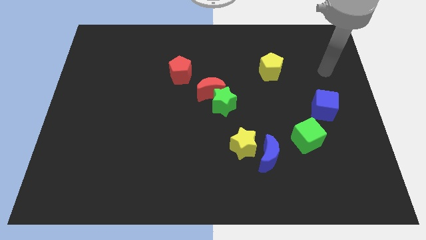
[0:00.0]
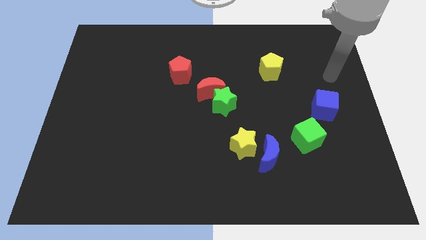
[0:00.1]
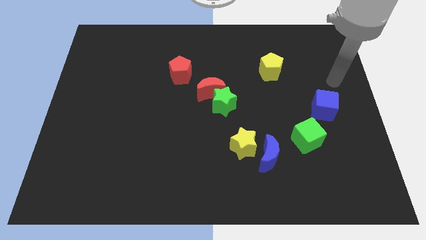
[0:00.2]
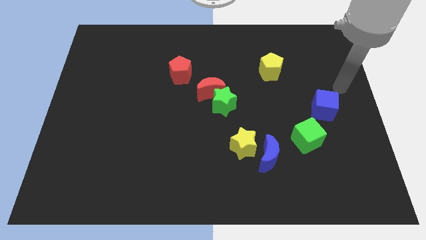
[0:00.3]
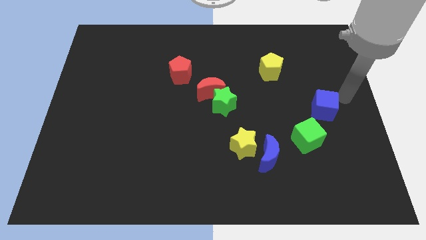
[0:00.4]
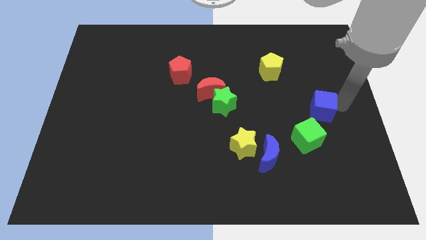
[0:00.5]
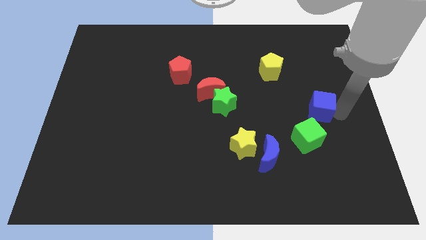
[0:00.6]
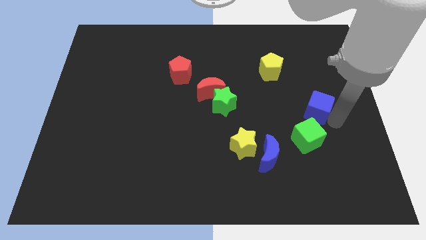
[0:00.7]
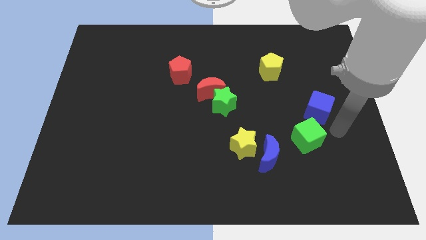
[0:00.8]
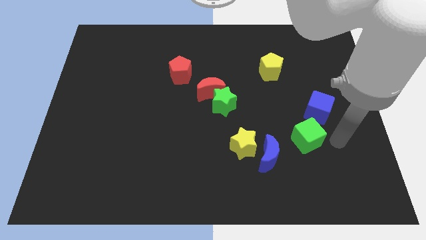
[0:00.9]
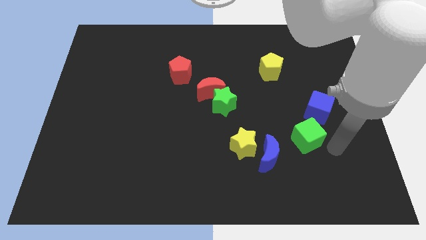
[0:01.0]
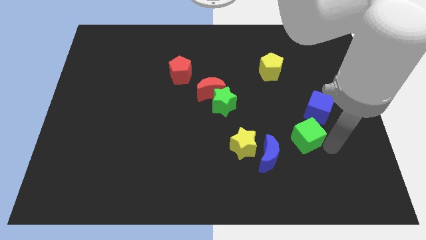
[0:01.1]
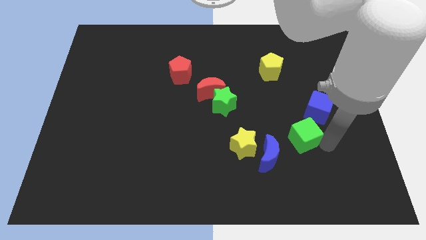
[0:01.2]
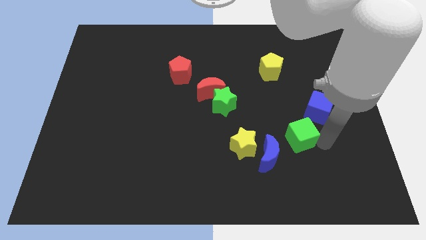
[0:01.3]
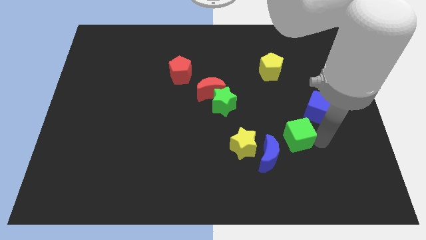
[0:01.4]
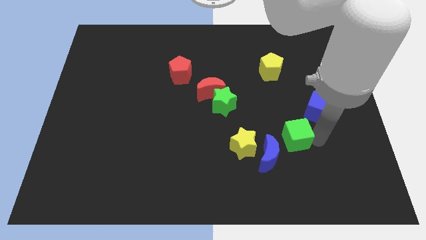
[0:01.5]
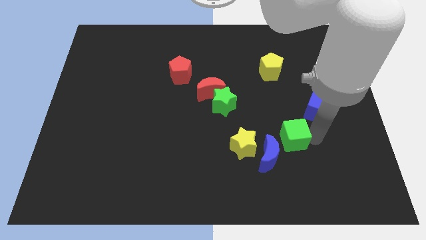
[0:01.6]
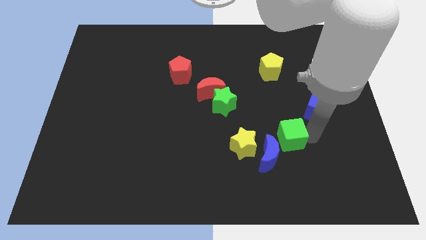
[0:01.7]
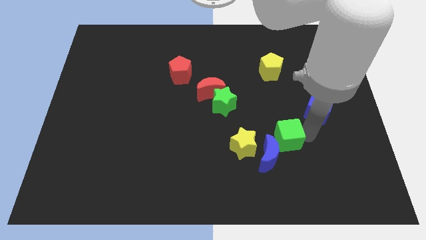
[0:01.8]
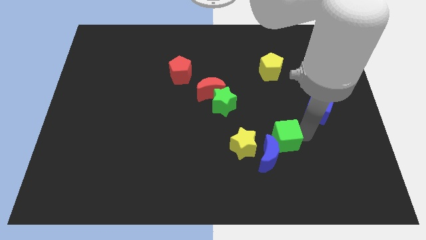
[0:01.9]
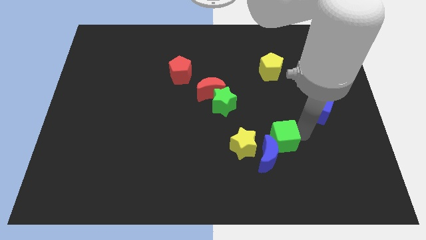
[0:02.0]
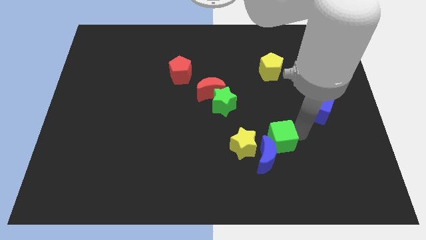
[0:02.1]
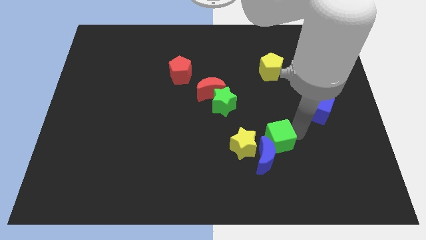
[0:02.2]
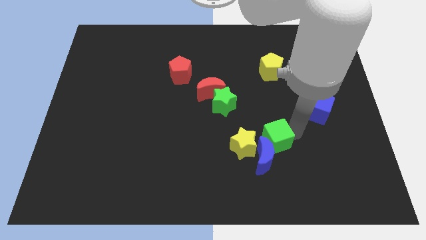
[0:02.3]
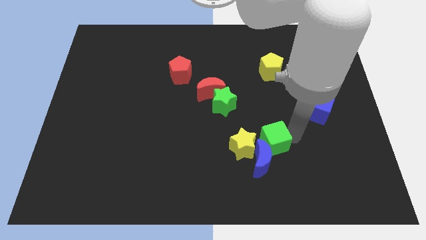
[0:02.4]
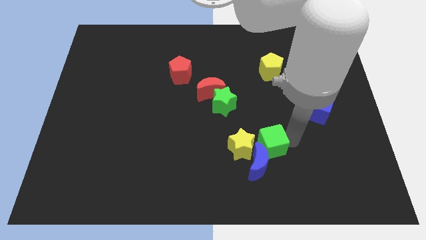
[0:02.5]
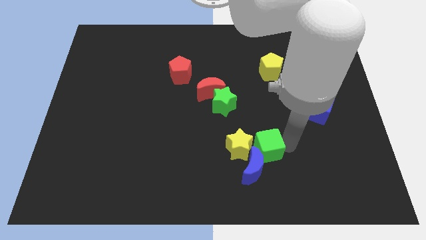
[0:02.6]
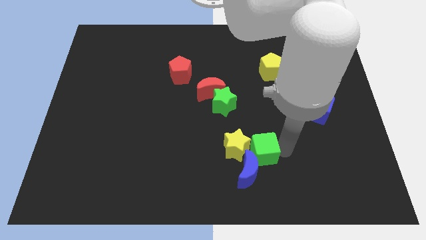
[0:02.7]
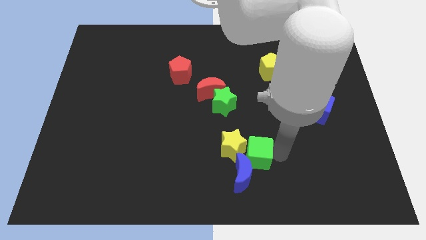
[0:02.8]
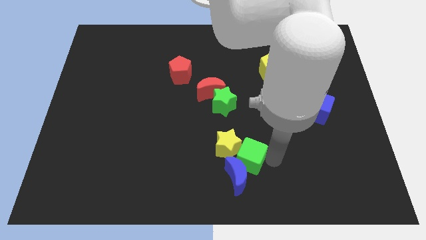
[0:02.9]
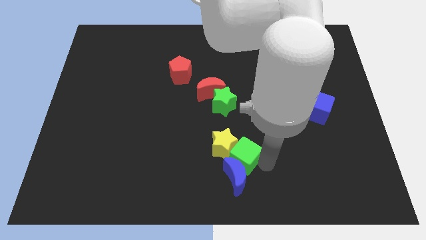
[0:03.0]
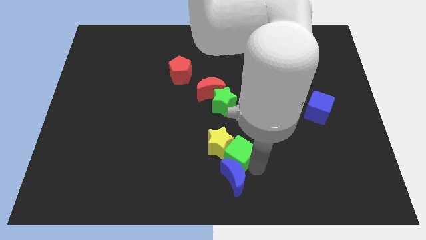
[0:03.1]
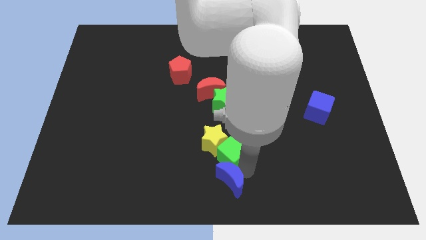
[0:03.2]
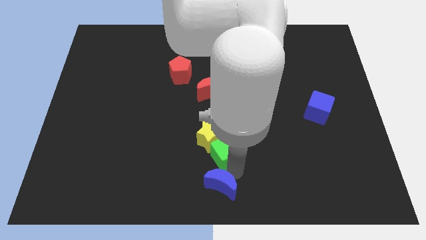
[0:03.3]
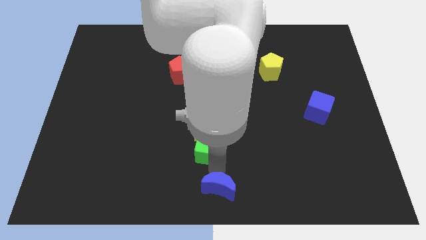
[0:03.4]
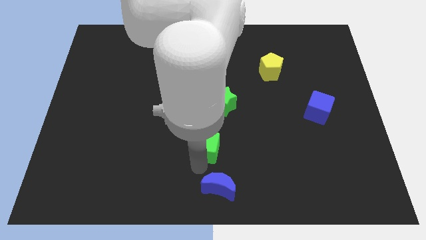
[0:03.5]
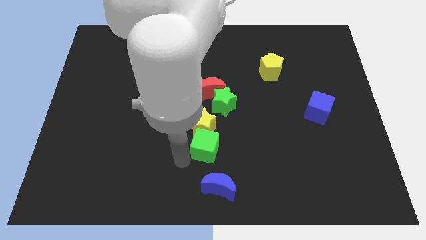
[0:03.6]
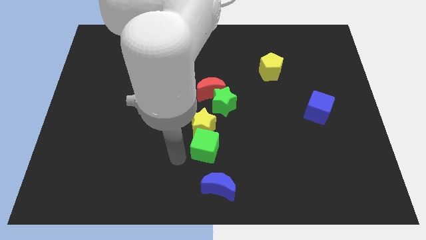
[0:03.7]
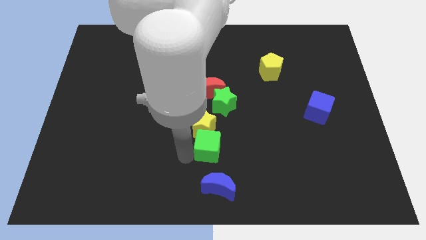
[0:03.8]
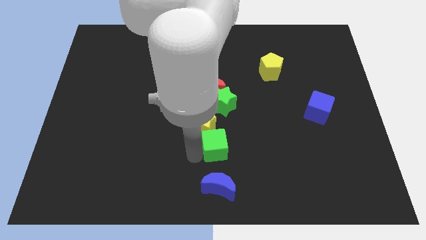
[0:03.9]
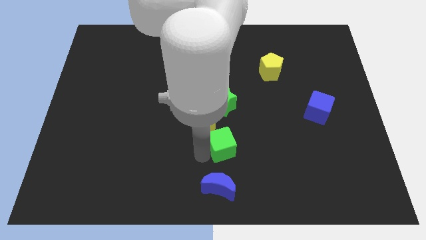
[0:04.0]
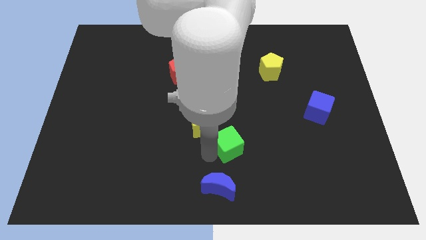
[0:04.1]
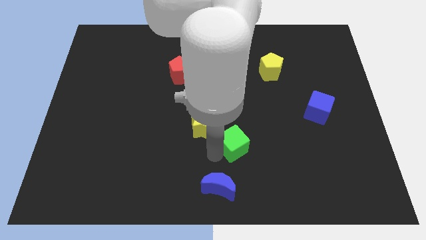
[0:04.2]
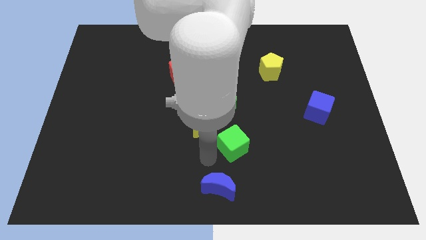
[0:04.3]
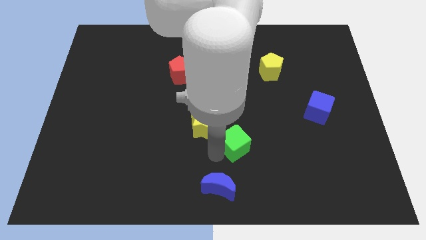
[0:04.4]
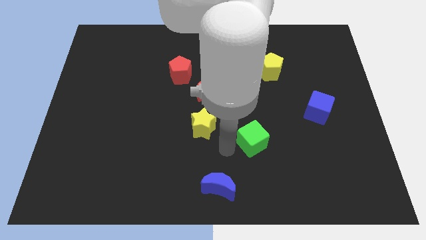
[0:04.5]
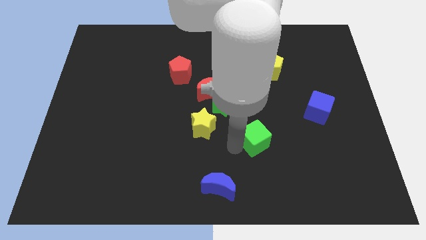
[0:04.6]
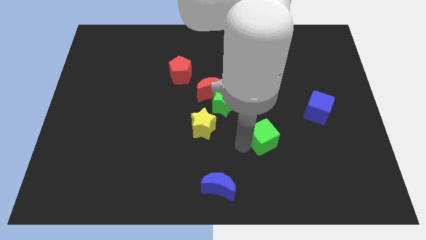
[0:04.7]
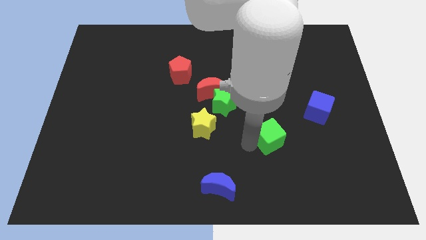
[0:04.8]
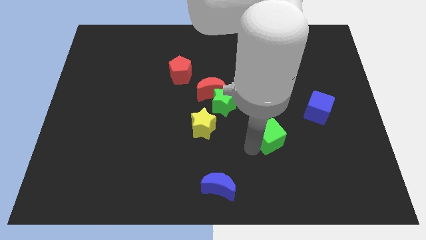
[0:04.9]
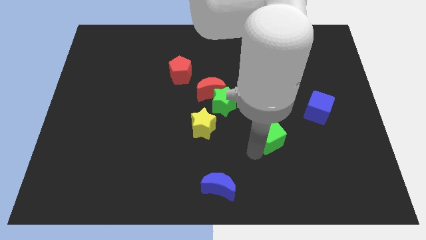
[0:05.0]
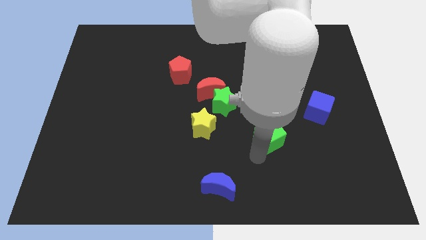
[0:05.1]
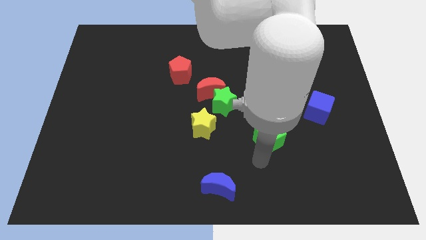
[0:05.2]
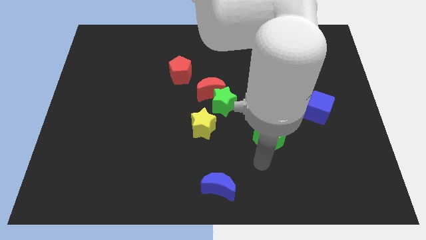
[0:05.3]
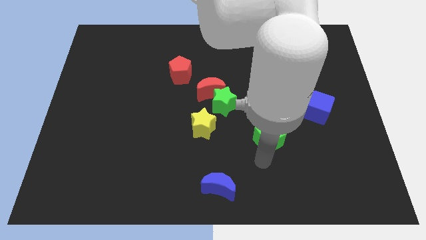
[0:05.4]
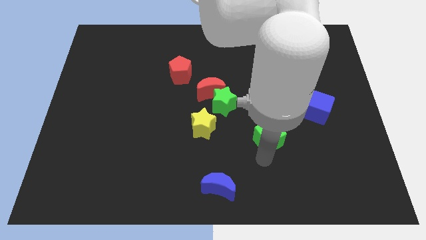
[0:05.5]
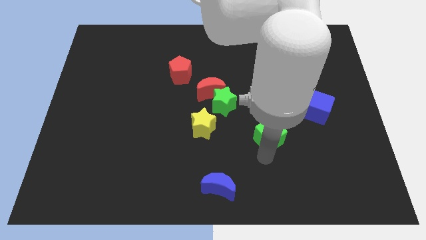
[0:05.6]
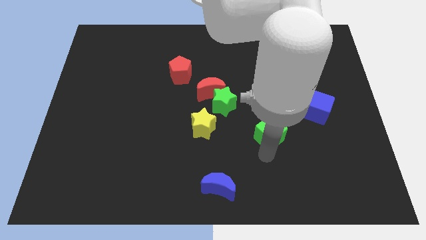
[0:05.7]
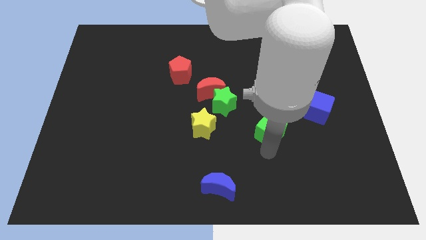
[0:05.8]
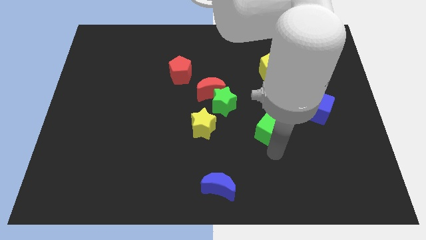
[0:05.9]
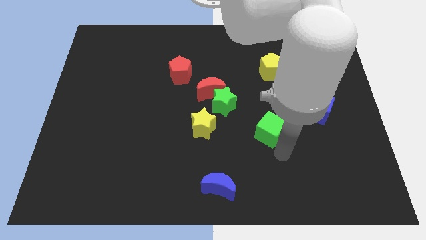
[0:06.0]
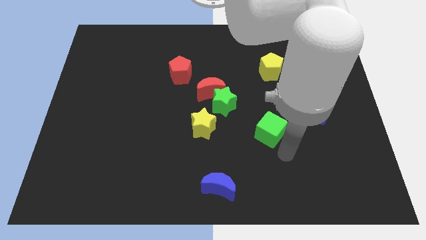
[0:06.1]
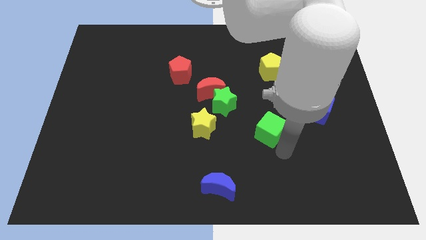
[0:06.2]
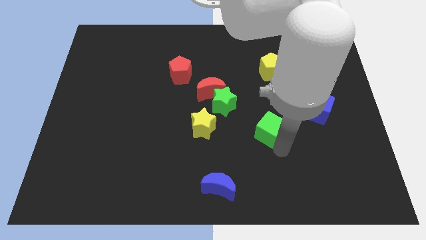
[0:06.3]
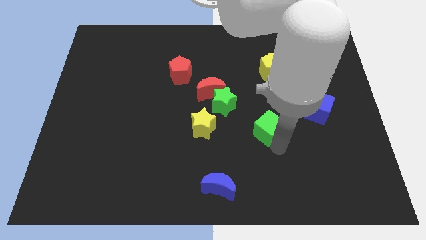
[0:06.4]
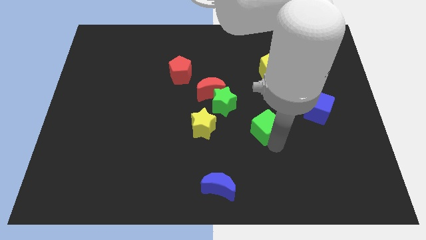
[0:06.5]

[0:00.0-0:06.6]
slide the green cube a little up and to the left

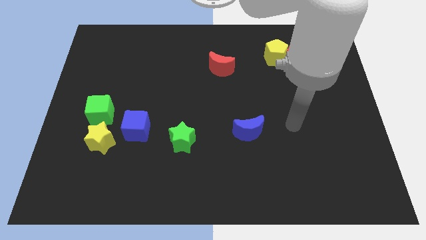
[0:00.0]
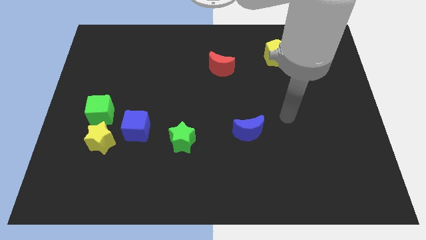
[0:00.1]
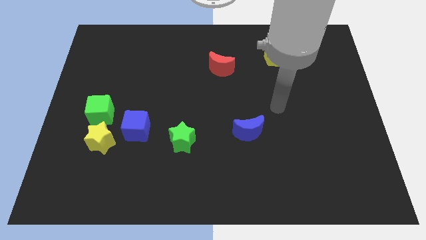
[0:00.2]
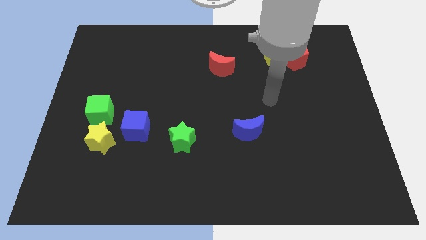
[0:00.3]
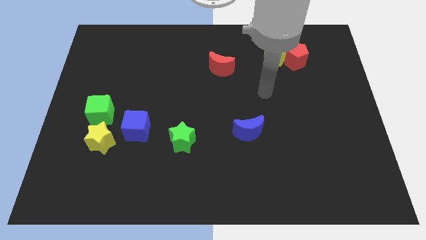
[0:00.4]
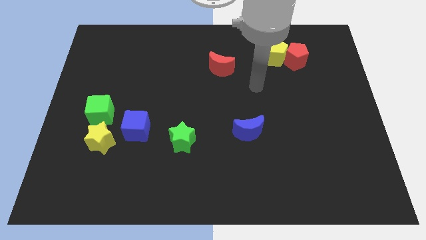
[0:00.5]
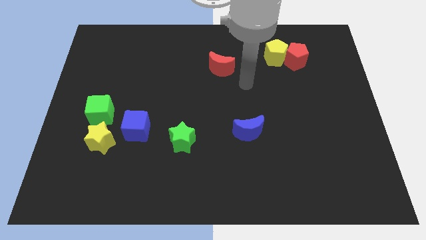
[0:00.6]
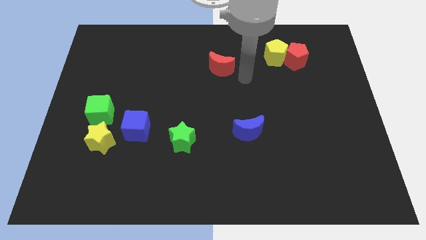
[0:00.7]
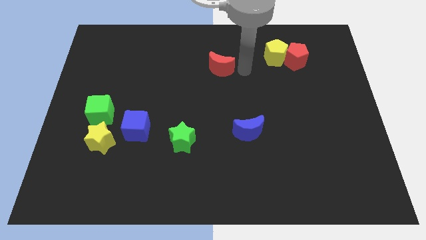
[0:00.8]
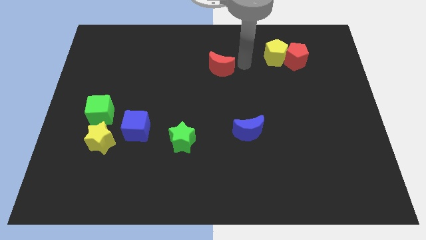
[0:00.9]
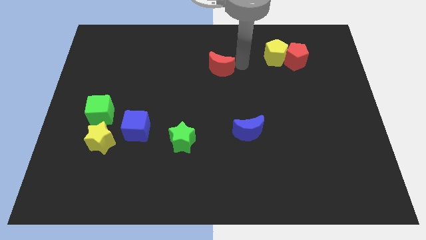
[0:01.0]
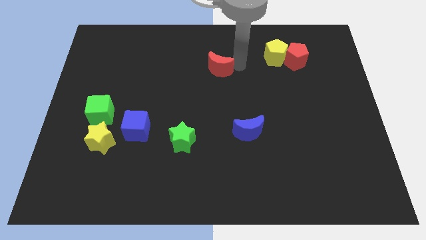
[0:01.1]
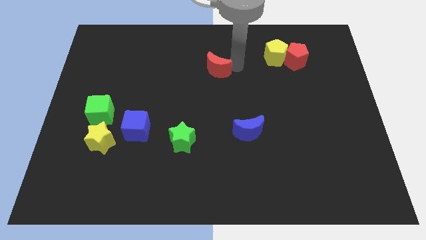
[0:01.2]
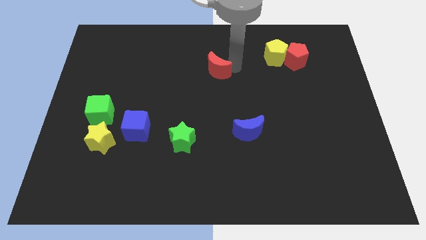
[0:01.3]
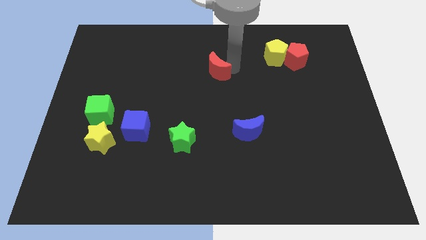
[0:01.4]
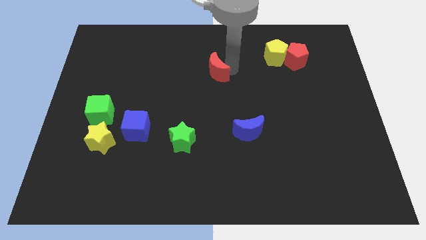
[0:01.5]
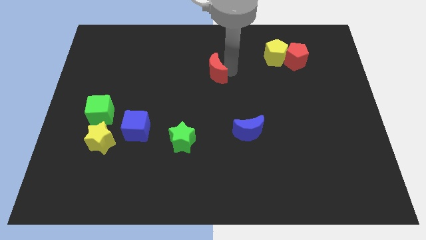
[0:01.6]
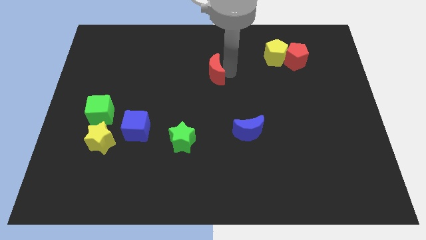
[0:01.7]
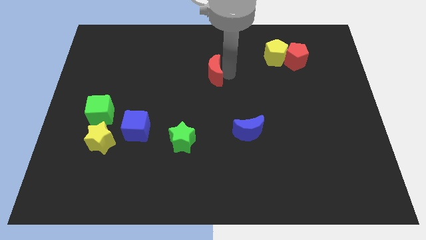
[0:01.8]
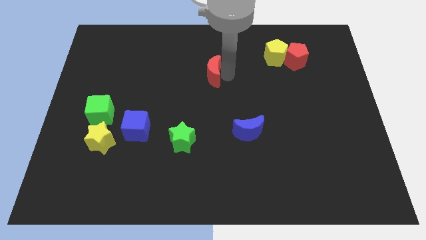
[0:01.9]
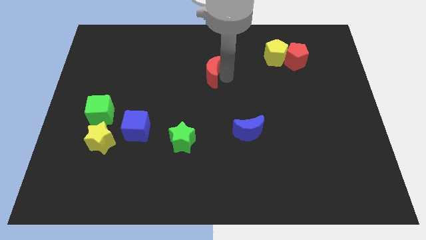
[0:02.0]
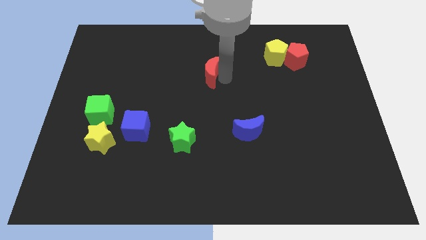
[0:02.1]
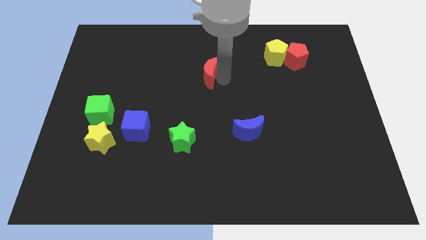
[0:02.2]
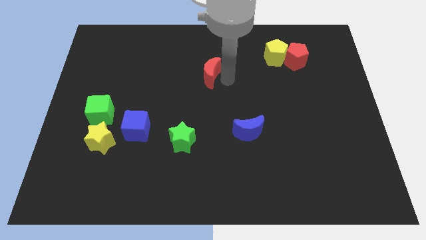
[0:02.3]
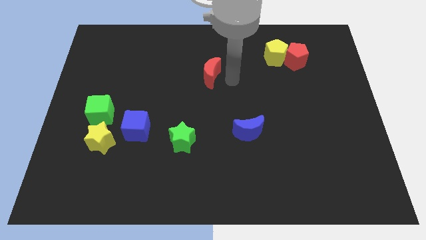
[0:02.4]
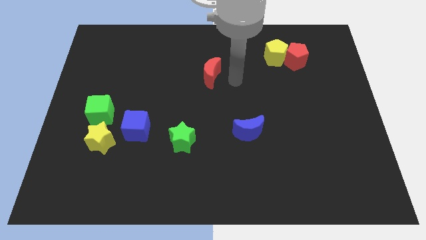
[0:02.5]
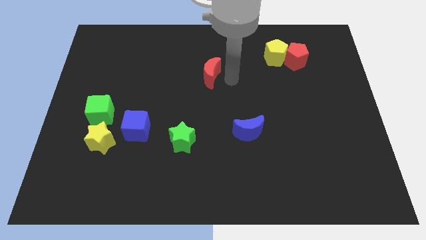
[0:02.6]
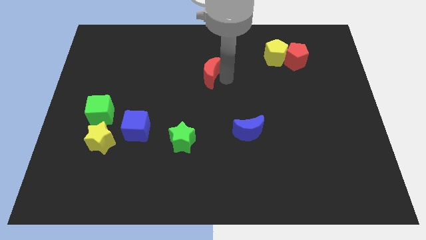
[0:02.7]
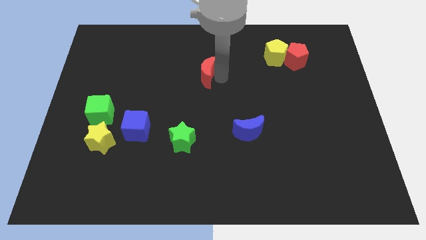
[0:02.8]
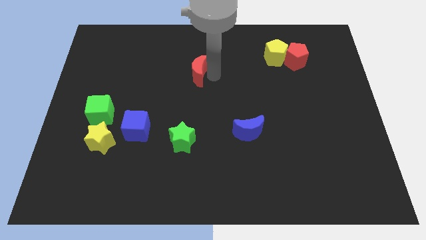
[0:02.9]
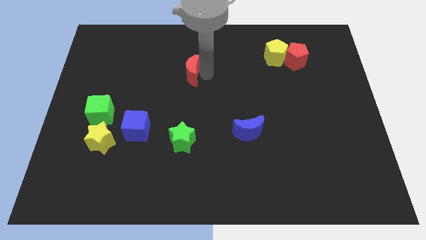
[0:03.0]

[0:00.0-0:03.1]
slightly move the red moon to the left
